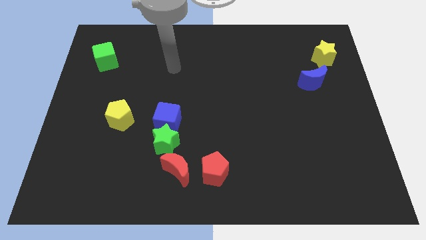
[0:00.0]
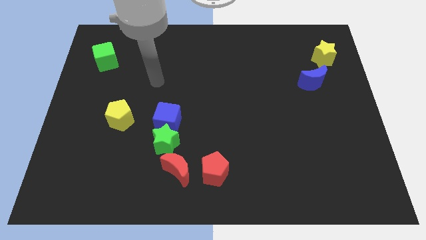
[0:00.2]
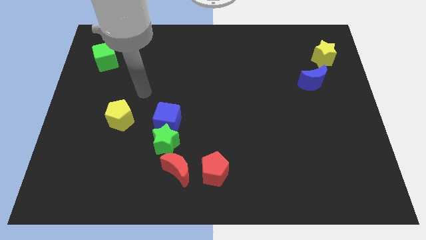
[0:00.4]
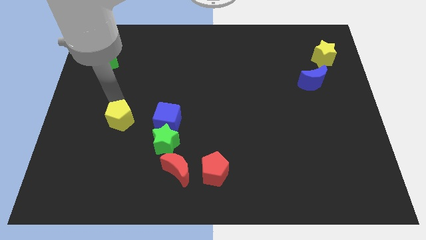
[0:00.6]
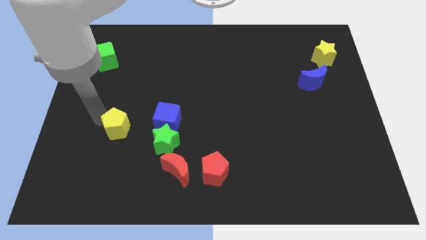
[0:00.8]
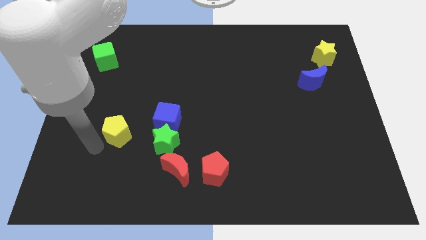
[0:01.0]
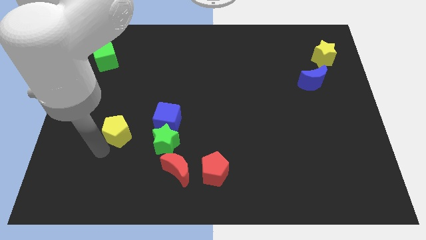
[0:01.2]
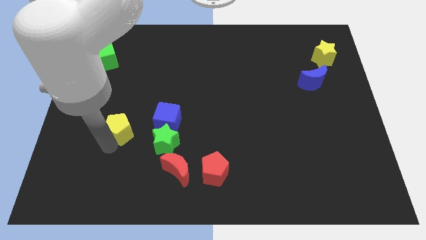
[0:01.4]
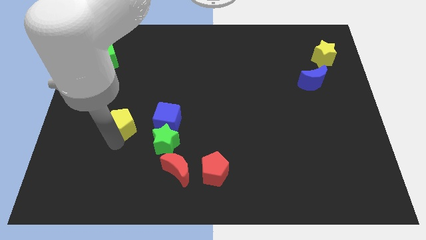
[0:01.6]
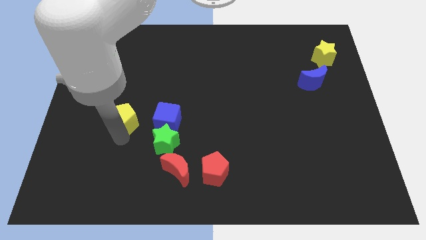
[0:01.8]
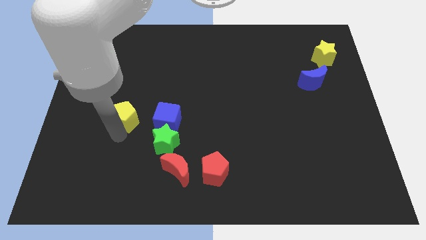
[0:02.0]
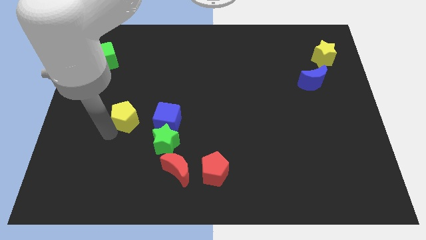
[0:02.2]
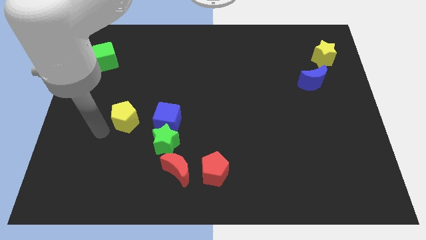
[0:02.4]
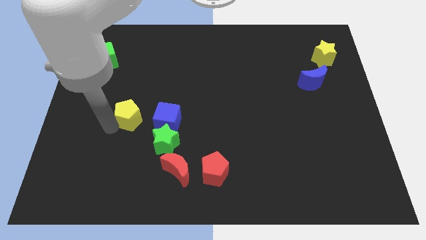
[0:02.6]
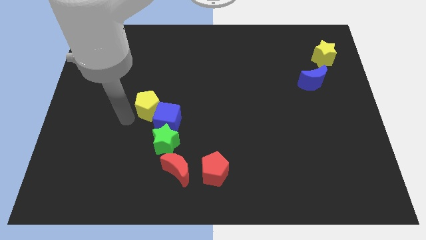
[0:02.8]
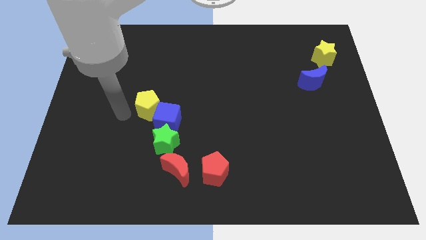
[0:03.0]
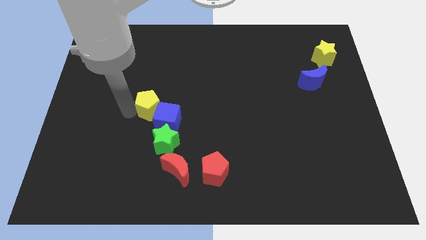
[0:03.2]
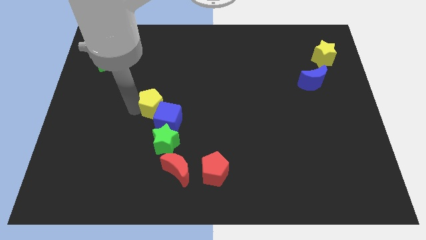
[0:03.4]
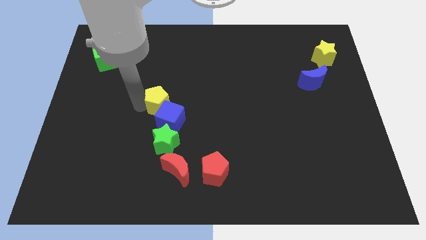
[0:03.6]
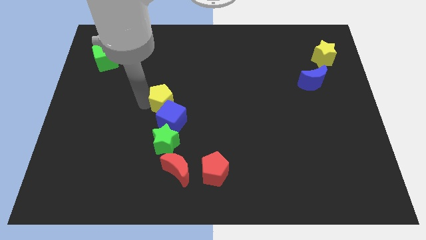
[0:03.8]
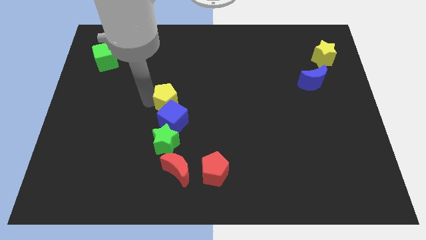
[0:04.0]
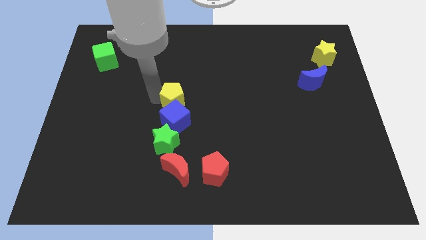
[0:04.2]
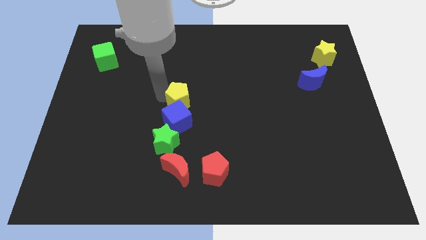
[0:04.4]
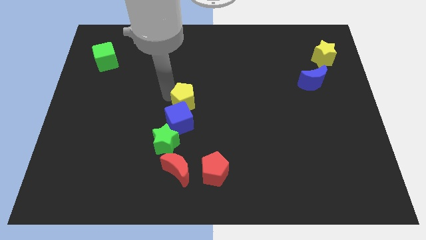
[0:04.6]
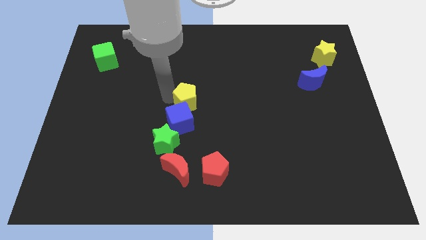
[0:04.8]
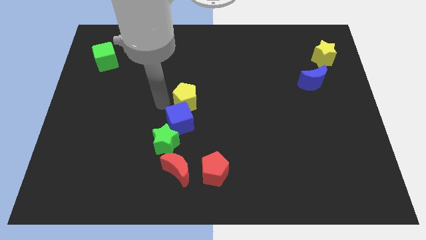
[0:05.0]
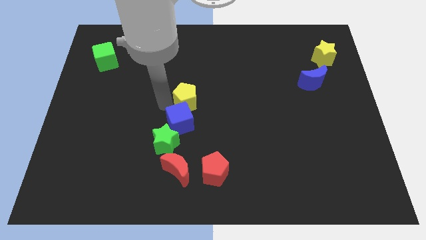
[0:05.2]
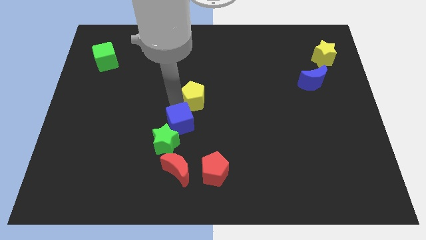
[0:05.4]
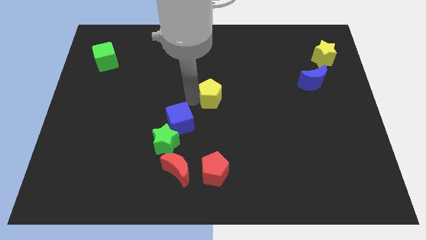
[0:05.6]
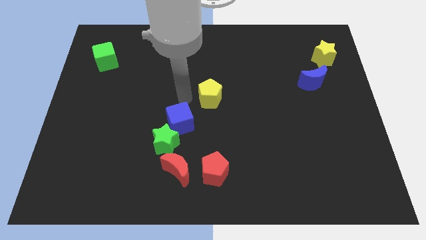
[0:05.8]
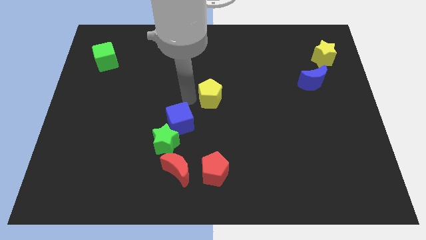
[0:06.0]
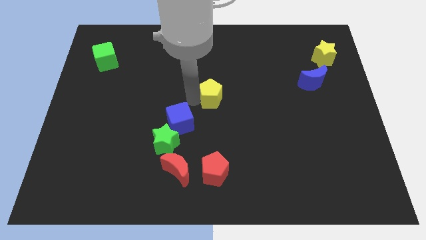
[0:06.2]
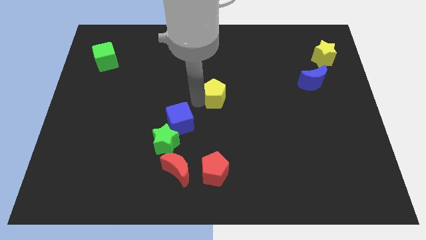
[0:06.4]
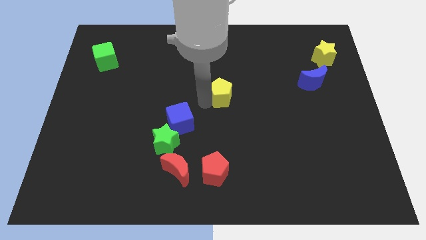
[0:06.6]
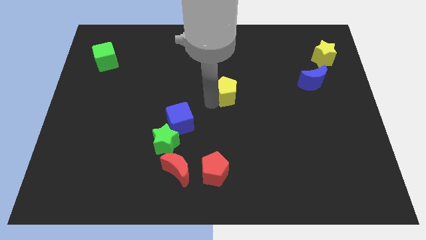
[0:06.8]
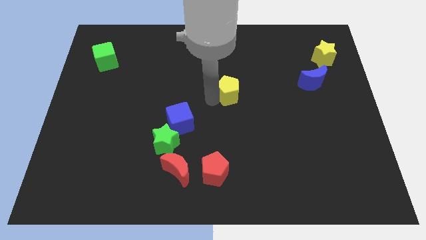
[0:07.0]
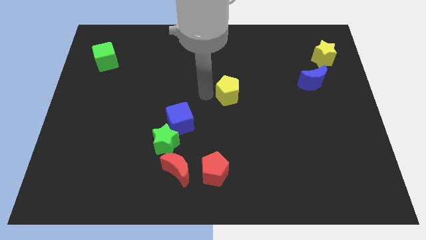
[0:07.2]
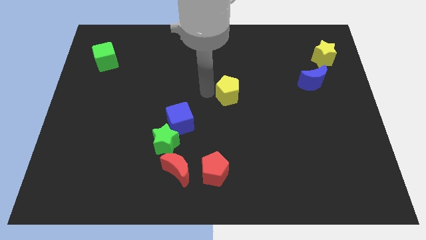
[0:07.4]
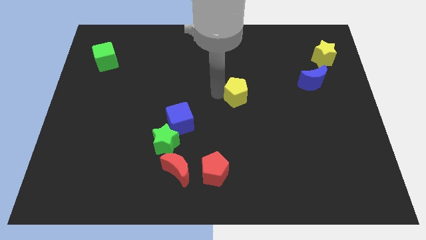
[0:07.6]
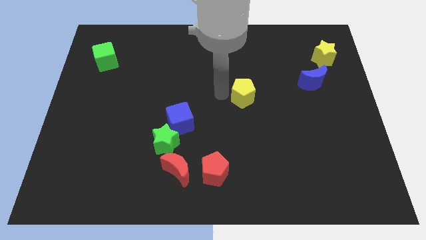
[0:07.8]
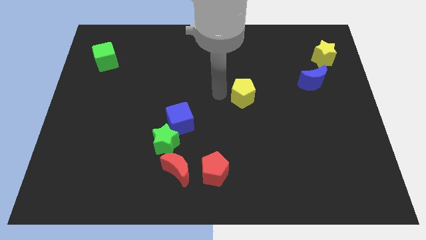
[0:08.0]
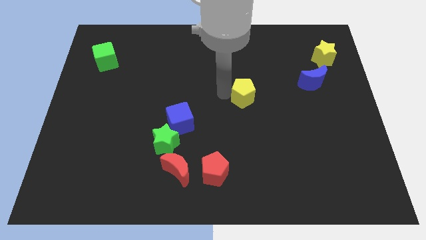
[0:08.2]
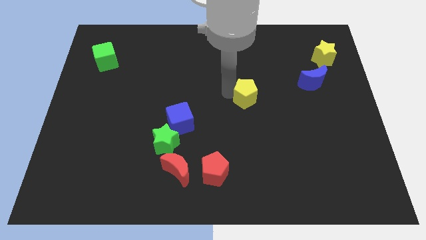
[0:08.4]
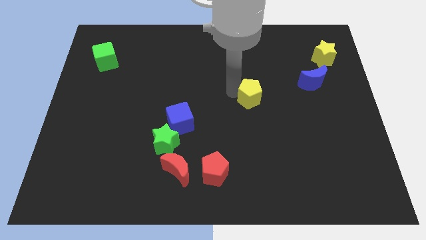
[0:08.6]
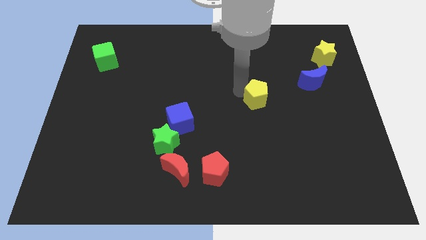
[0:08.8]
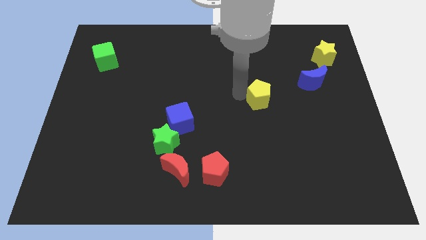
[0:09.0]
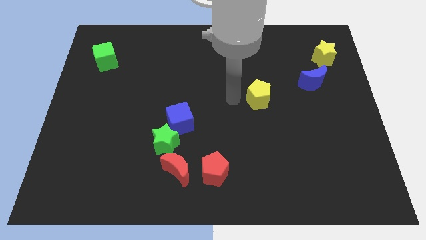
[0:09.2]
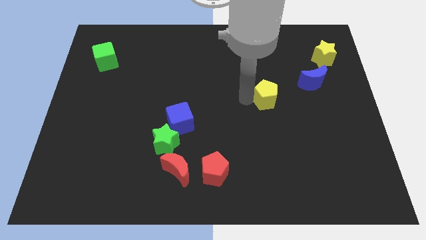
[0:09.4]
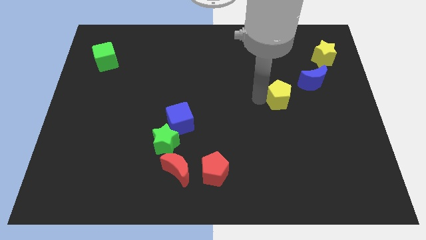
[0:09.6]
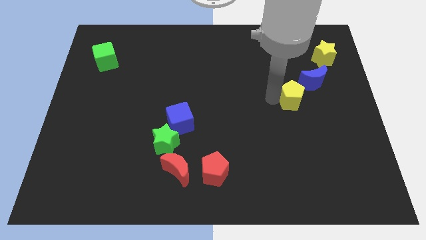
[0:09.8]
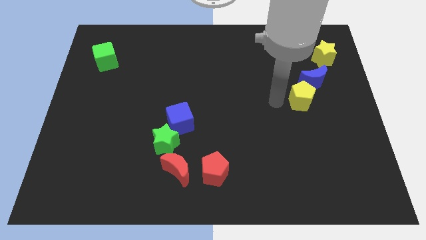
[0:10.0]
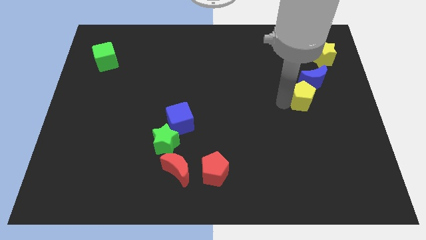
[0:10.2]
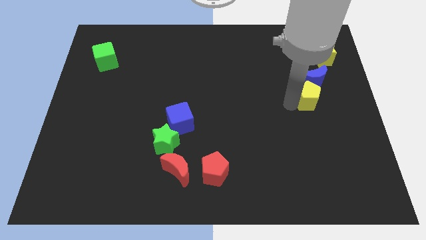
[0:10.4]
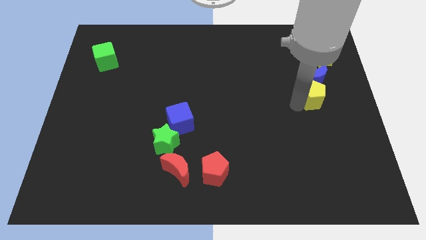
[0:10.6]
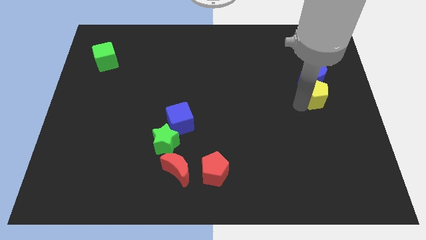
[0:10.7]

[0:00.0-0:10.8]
push the yellow pentagon below the yellow star

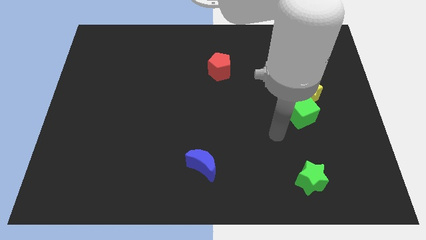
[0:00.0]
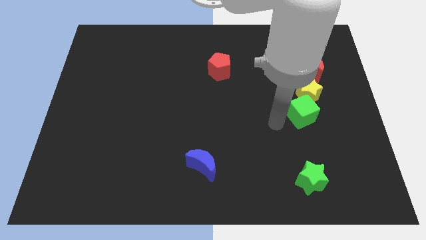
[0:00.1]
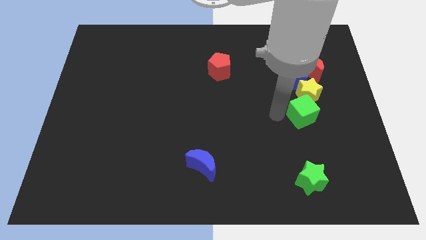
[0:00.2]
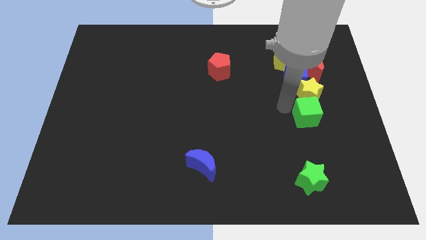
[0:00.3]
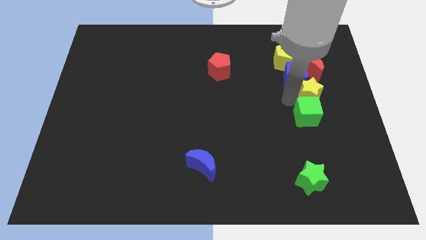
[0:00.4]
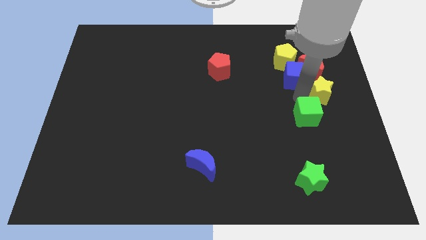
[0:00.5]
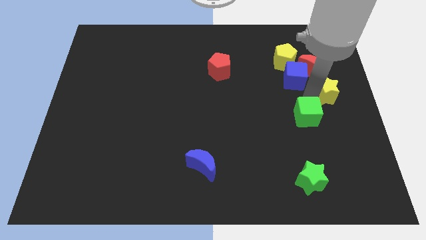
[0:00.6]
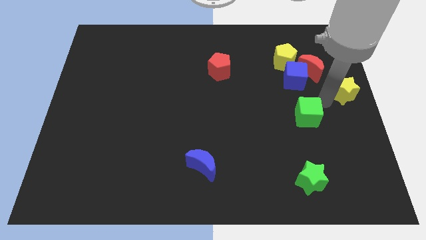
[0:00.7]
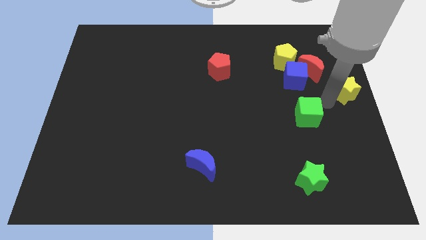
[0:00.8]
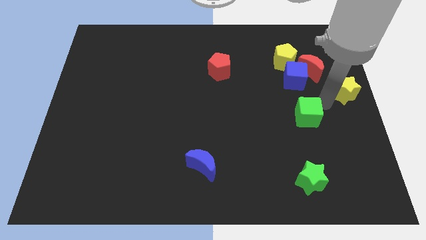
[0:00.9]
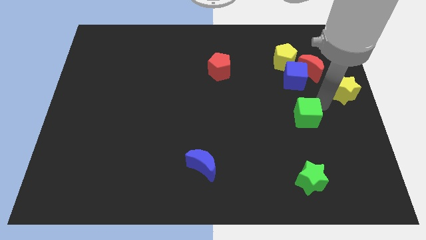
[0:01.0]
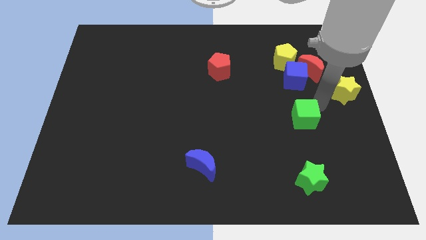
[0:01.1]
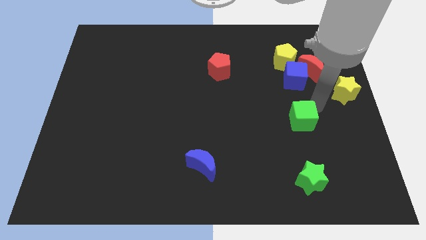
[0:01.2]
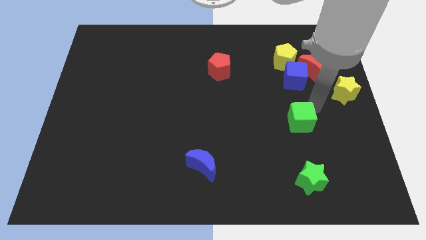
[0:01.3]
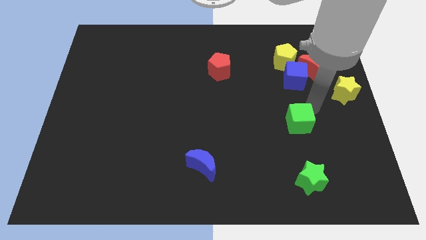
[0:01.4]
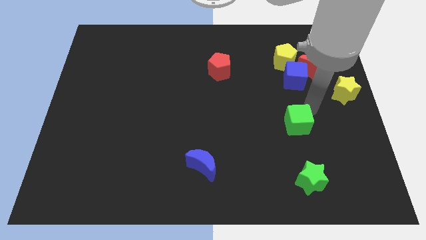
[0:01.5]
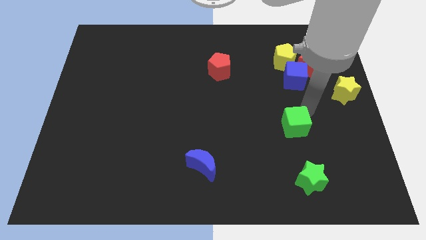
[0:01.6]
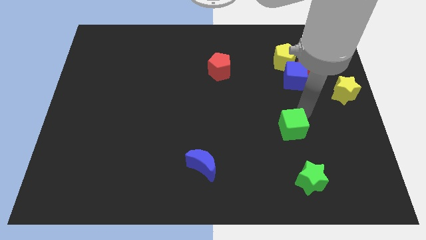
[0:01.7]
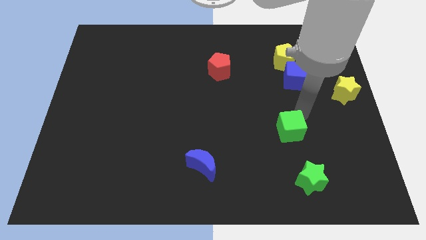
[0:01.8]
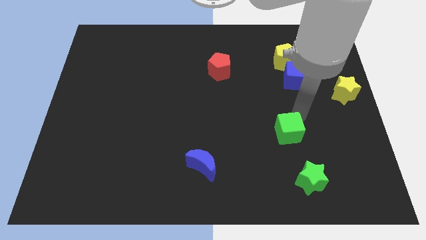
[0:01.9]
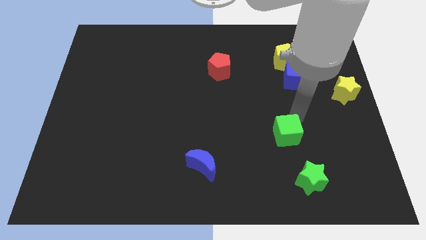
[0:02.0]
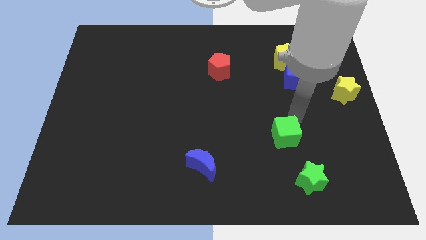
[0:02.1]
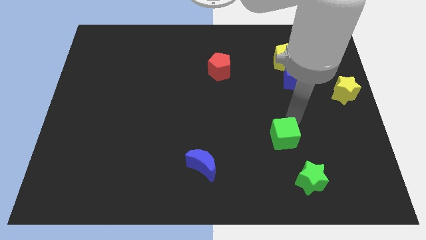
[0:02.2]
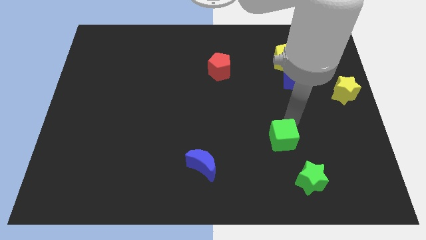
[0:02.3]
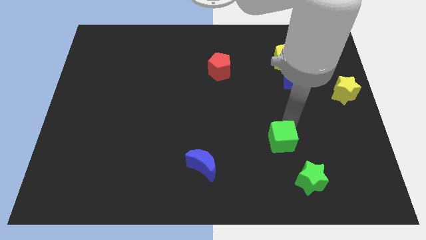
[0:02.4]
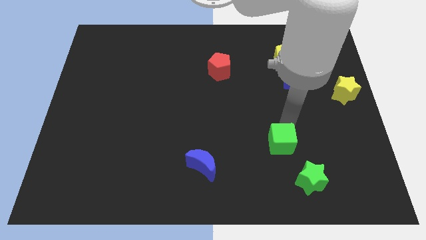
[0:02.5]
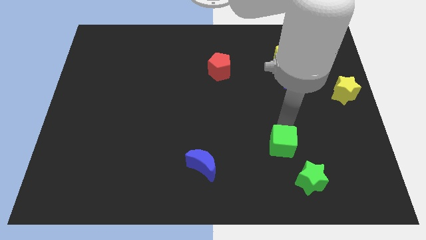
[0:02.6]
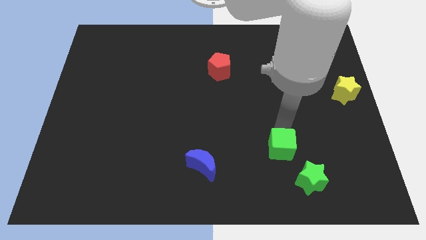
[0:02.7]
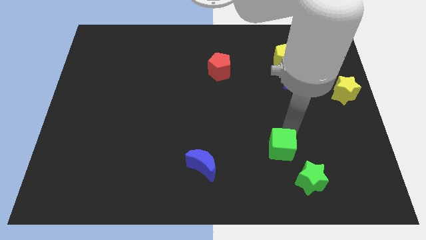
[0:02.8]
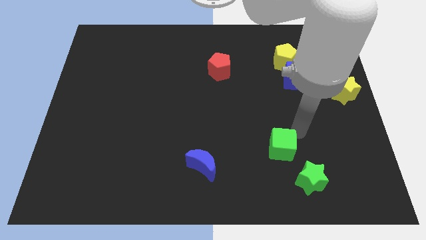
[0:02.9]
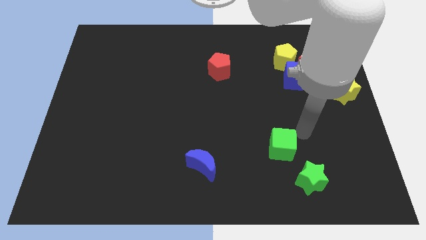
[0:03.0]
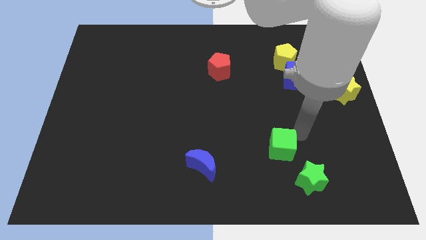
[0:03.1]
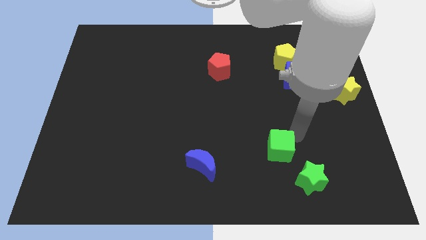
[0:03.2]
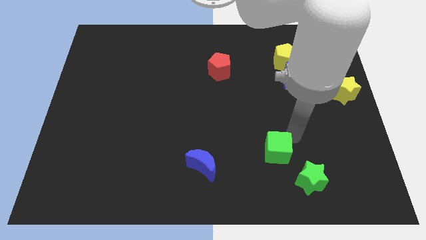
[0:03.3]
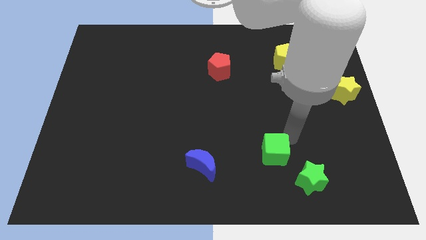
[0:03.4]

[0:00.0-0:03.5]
slide the green cube just right of the blue moon
